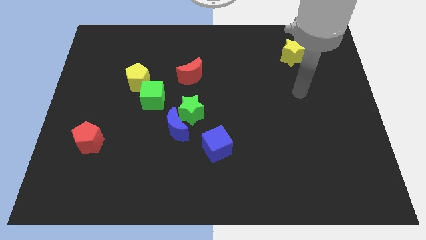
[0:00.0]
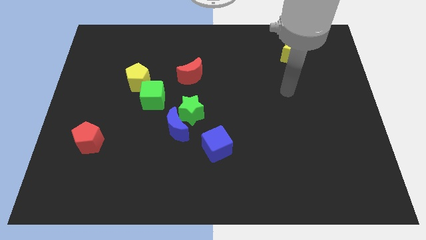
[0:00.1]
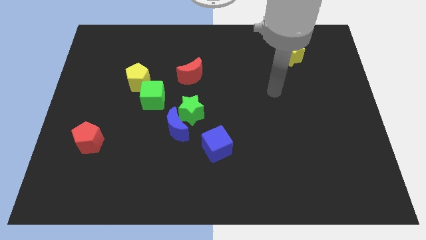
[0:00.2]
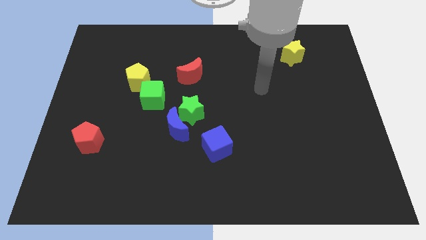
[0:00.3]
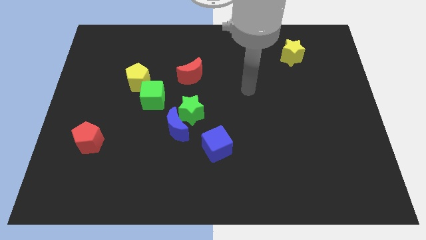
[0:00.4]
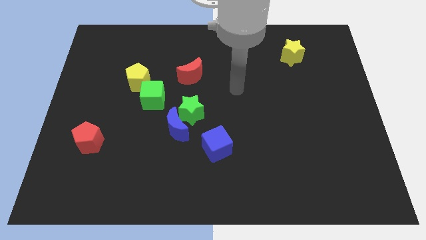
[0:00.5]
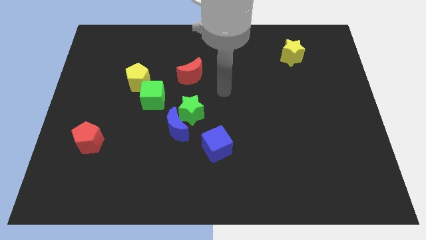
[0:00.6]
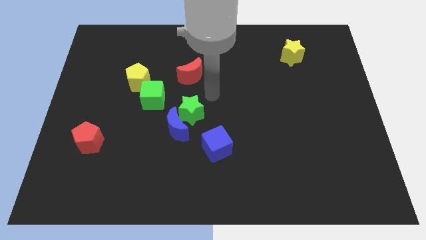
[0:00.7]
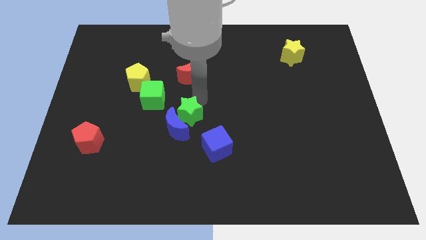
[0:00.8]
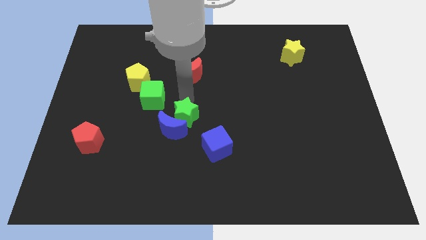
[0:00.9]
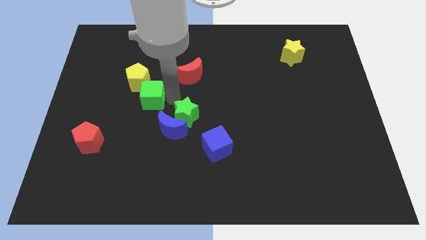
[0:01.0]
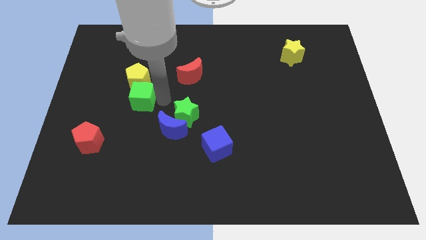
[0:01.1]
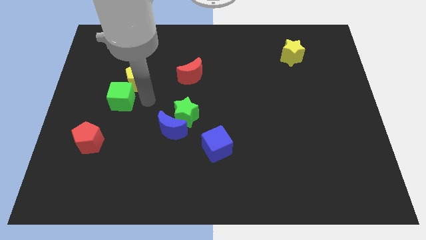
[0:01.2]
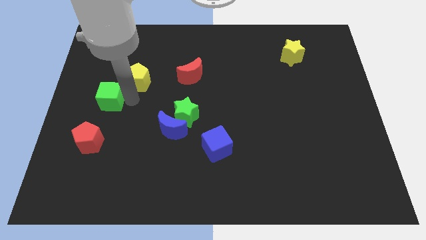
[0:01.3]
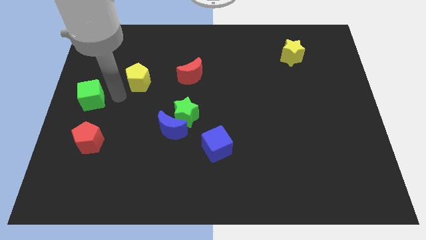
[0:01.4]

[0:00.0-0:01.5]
move the yellow pentagon away from the green cube

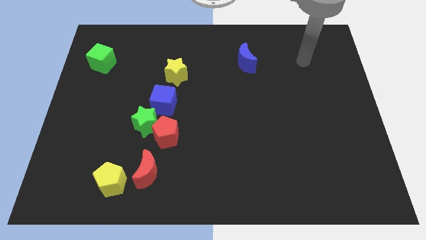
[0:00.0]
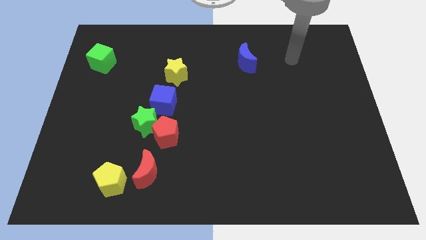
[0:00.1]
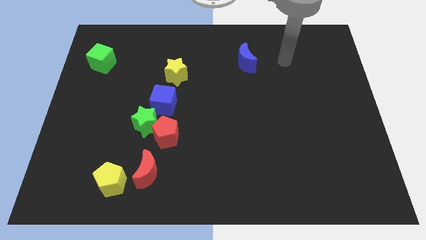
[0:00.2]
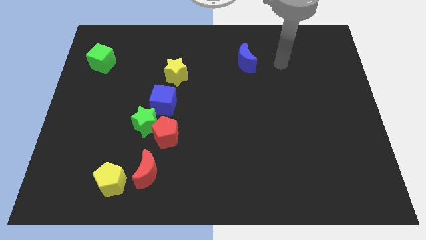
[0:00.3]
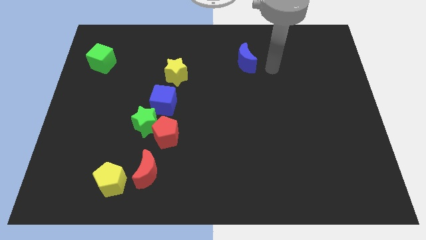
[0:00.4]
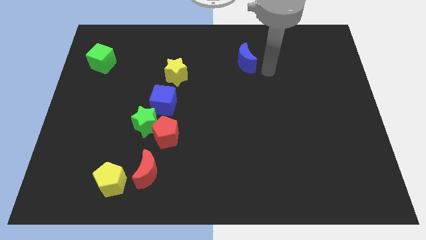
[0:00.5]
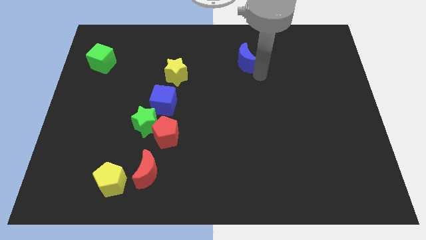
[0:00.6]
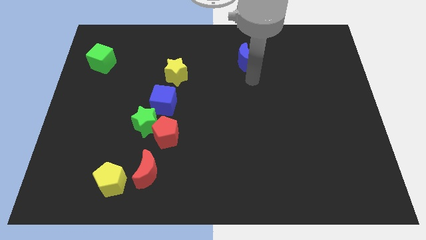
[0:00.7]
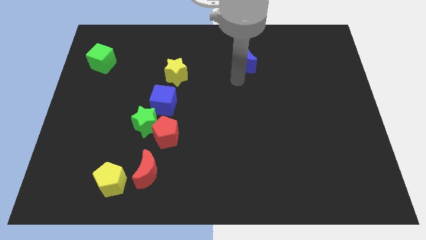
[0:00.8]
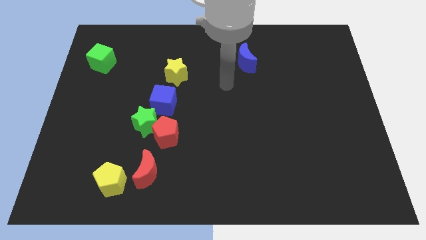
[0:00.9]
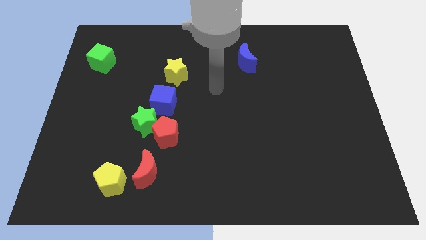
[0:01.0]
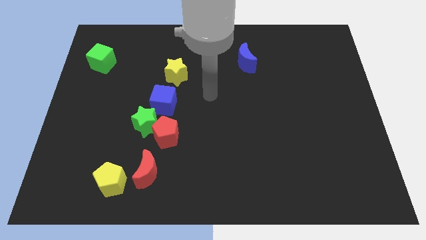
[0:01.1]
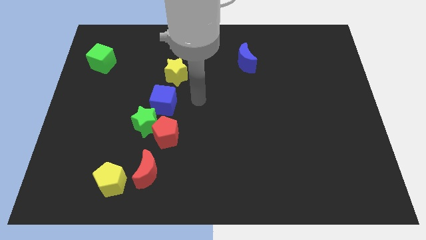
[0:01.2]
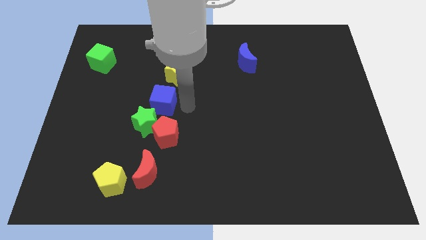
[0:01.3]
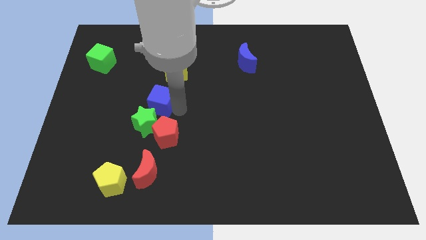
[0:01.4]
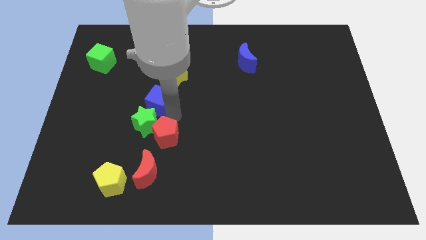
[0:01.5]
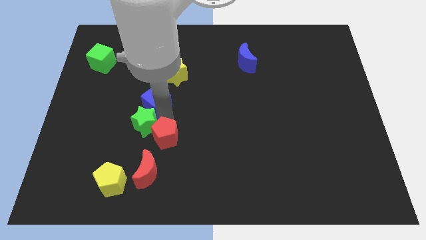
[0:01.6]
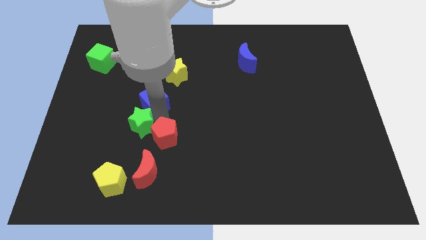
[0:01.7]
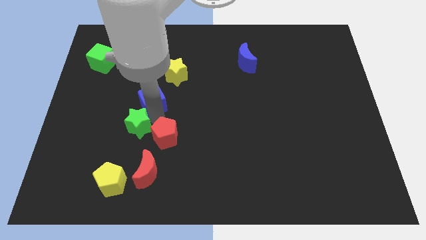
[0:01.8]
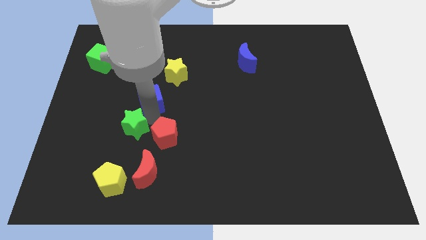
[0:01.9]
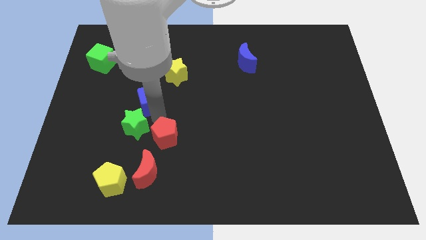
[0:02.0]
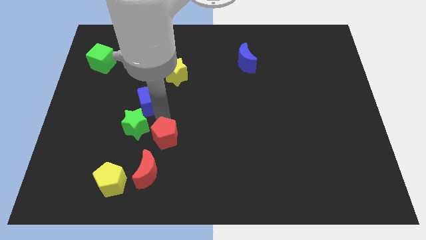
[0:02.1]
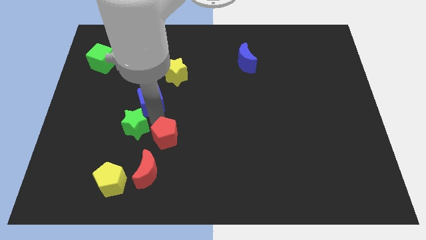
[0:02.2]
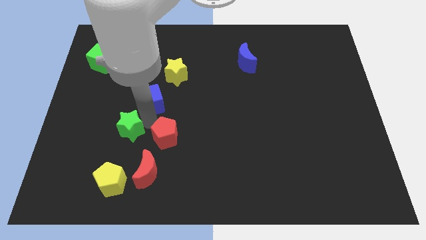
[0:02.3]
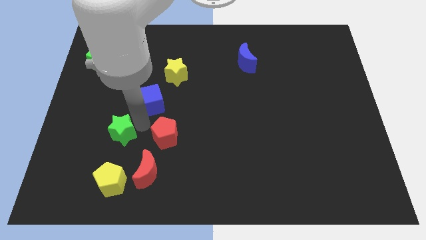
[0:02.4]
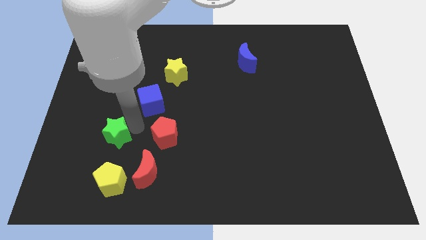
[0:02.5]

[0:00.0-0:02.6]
move the green star away from the red pentagon and blue cube

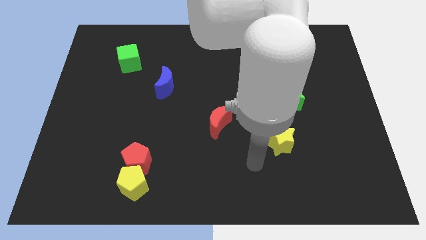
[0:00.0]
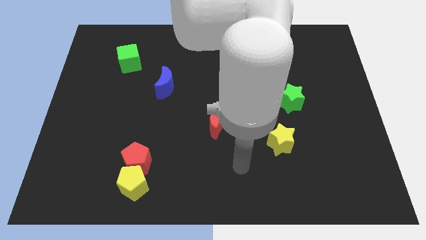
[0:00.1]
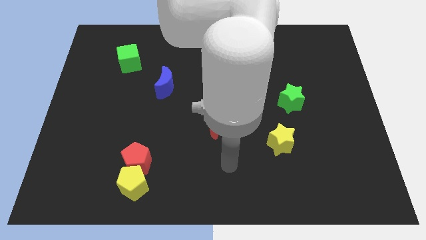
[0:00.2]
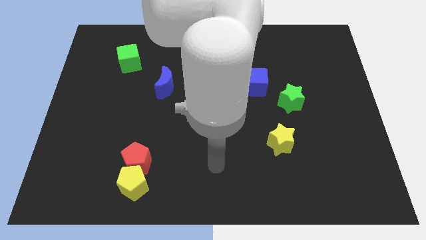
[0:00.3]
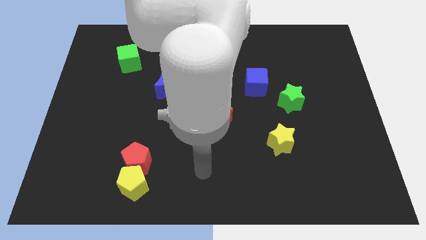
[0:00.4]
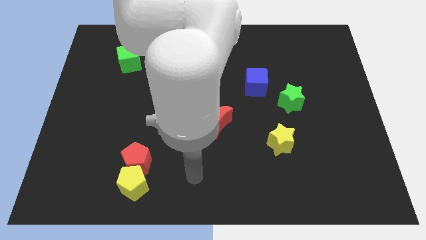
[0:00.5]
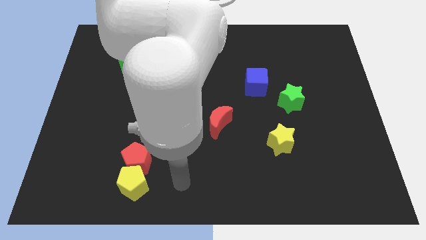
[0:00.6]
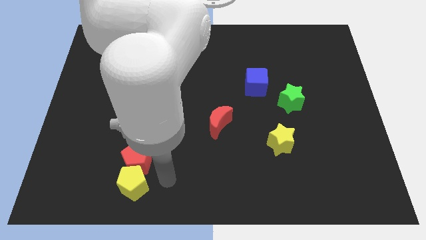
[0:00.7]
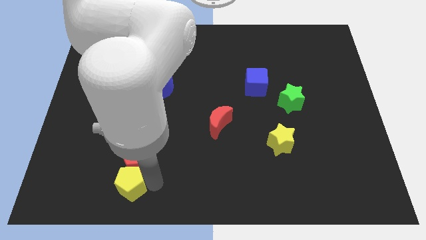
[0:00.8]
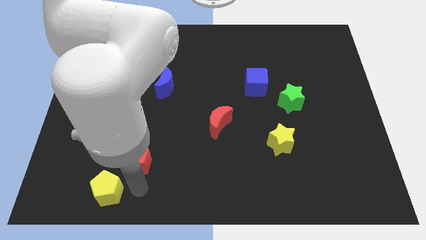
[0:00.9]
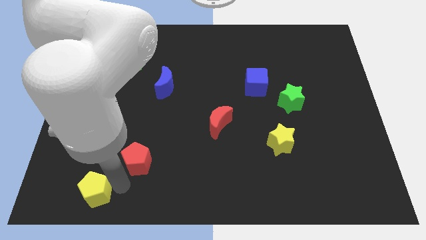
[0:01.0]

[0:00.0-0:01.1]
move the red pentagon away from the yellow pentagon

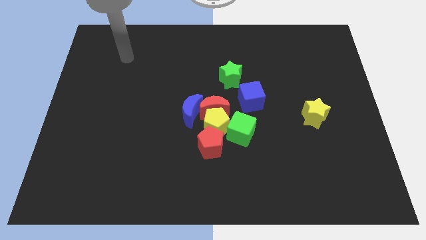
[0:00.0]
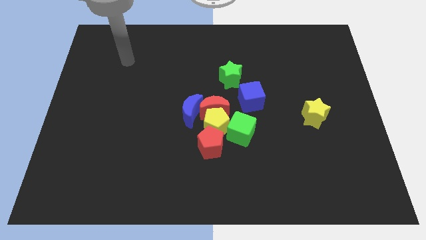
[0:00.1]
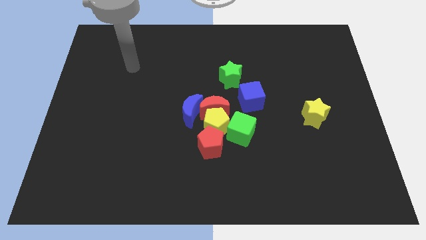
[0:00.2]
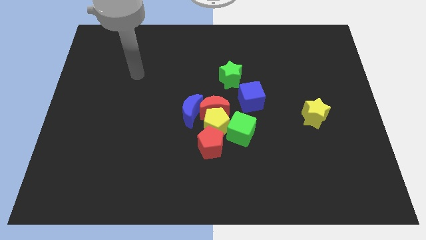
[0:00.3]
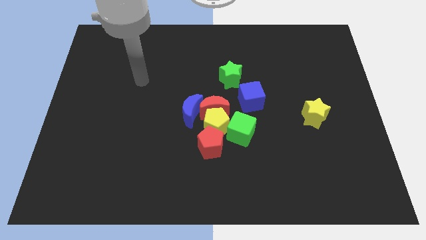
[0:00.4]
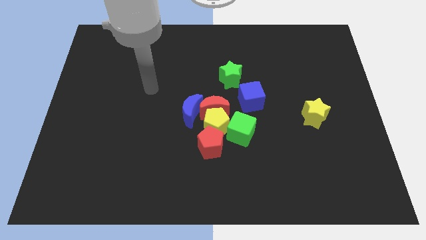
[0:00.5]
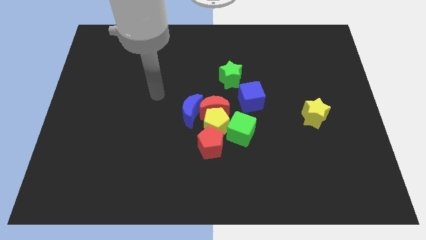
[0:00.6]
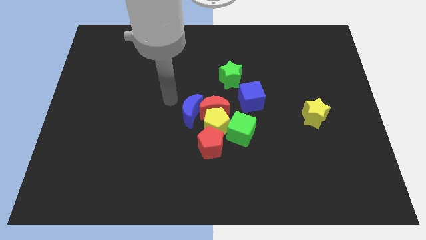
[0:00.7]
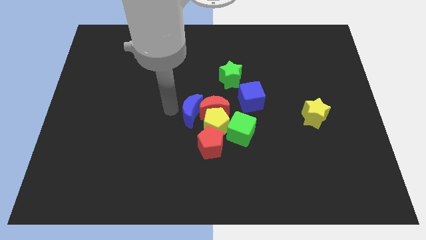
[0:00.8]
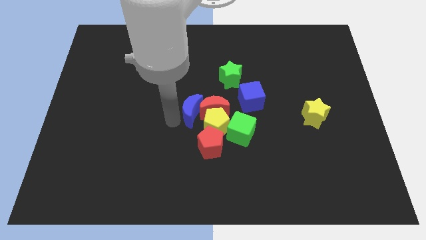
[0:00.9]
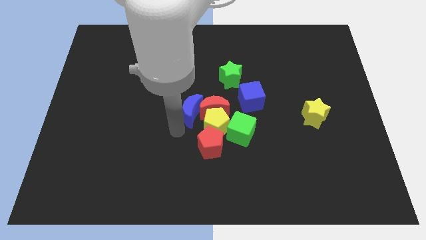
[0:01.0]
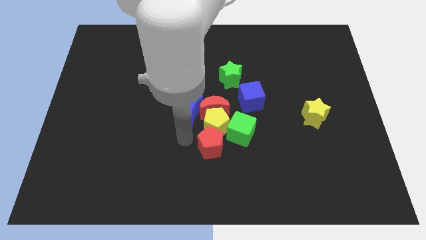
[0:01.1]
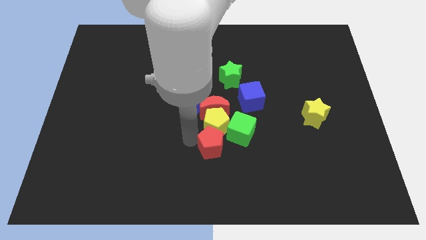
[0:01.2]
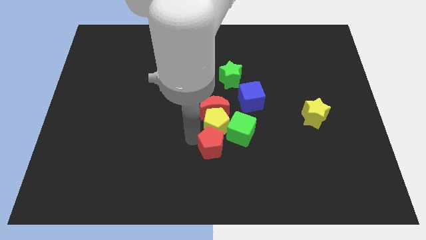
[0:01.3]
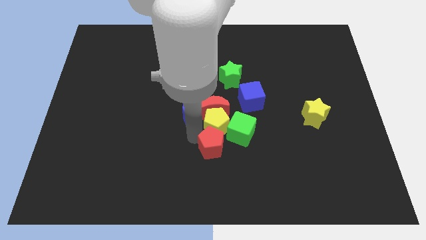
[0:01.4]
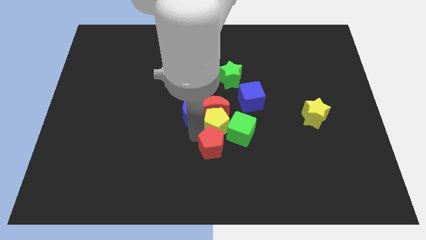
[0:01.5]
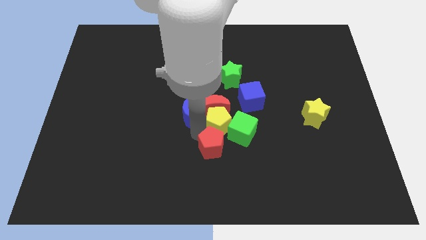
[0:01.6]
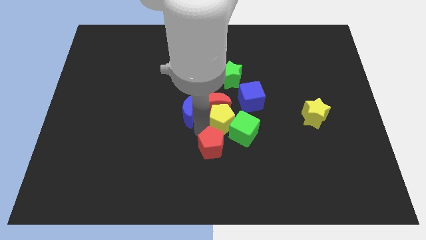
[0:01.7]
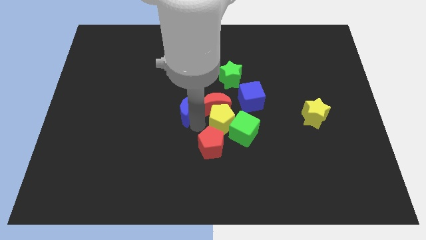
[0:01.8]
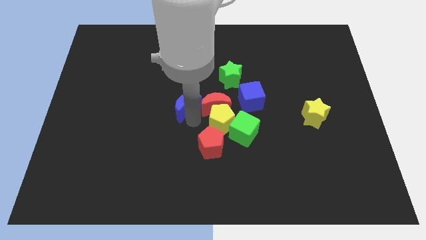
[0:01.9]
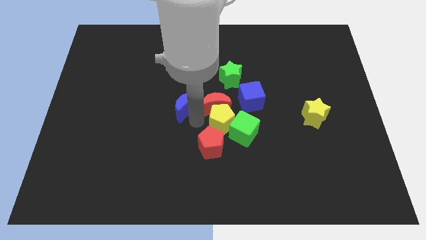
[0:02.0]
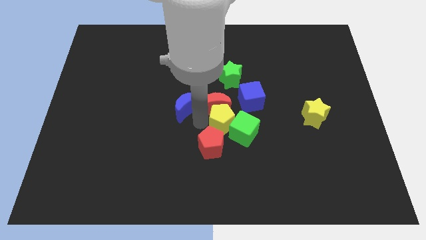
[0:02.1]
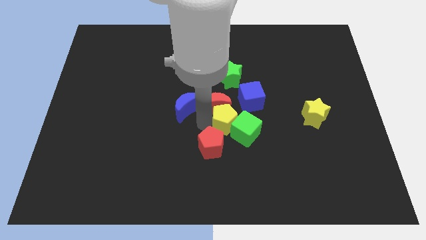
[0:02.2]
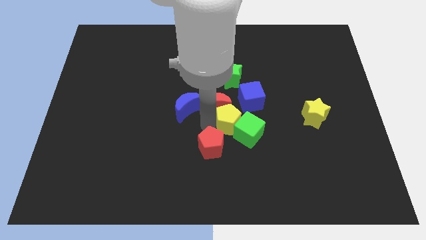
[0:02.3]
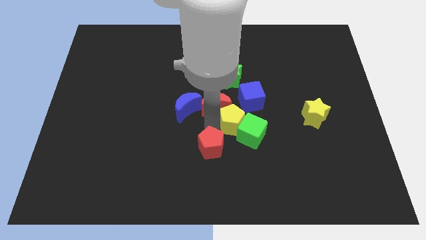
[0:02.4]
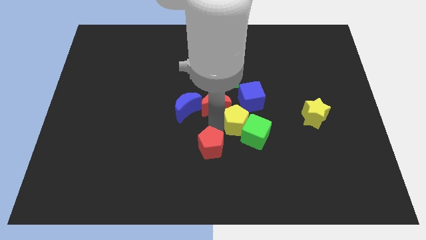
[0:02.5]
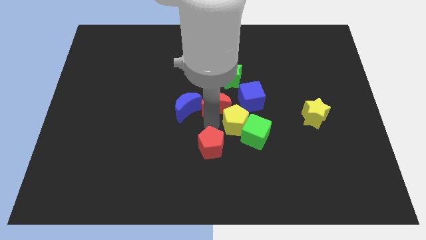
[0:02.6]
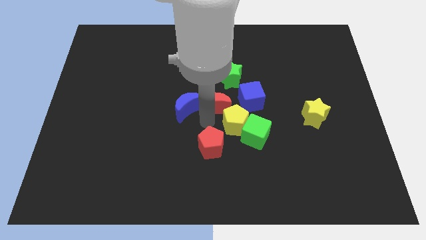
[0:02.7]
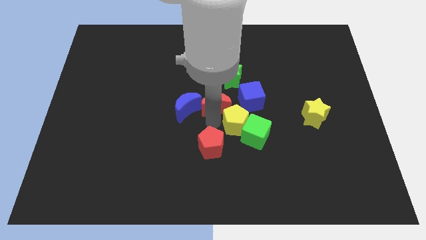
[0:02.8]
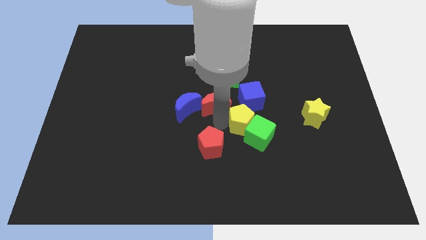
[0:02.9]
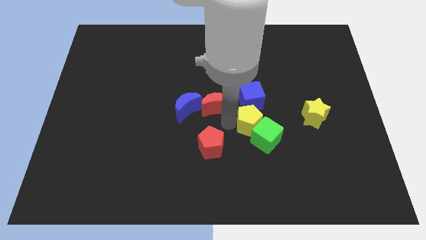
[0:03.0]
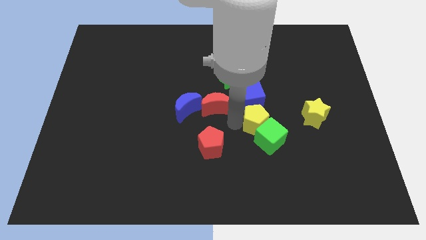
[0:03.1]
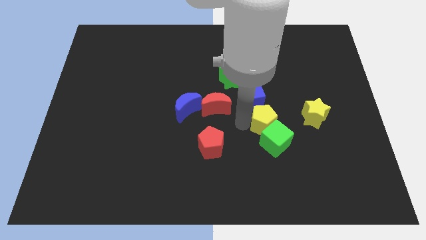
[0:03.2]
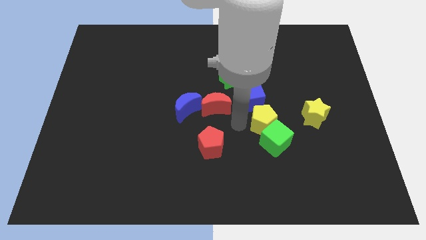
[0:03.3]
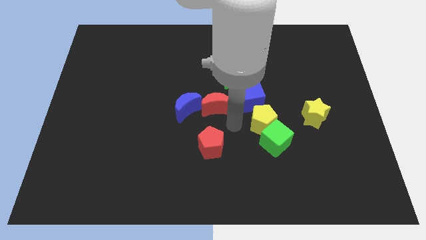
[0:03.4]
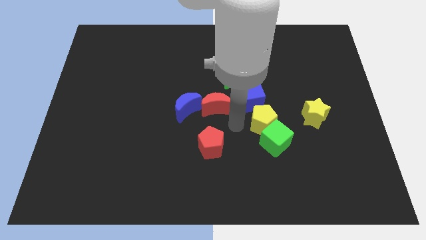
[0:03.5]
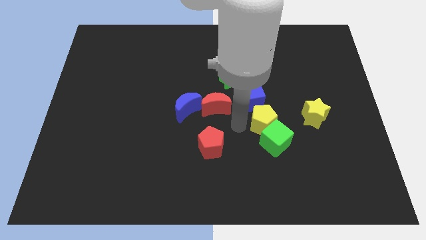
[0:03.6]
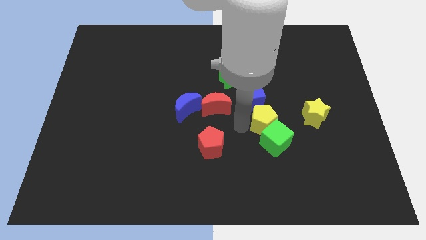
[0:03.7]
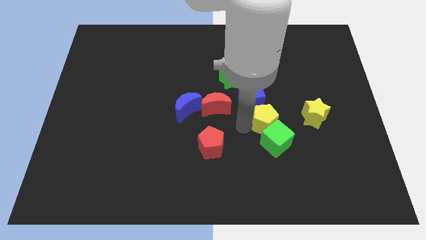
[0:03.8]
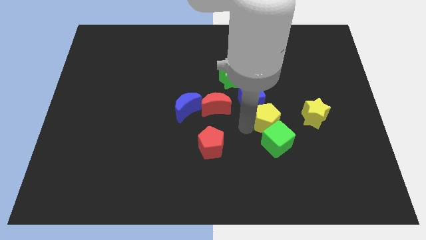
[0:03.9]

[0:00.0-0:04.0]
move the yellow pentagon away from the group of blocks
